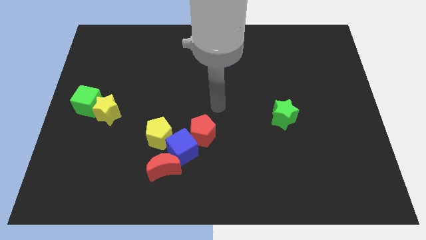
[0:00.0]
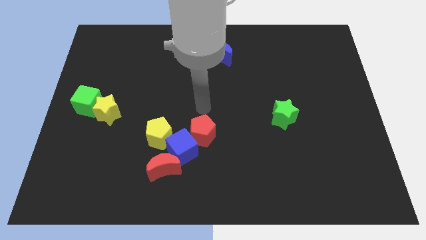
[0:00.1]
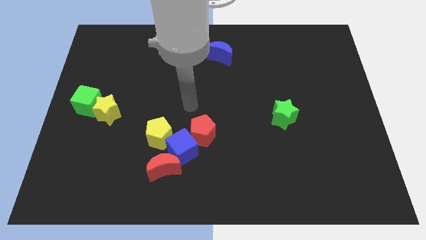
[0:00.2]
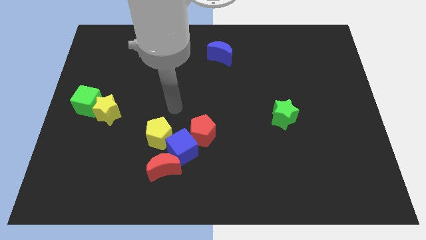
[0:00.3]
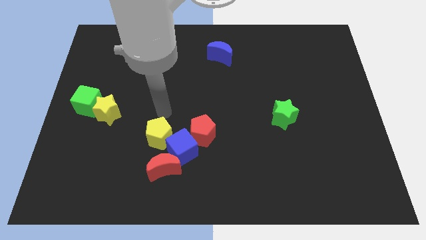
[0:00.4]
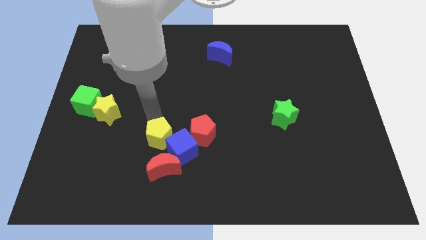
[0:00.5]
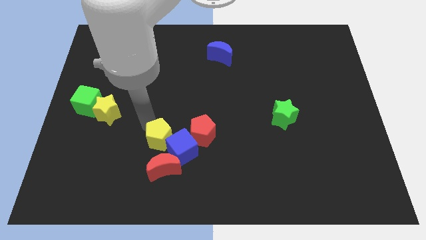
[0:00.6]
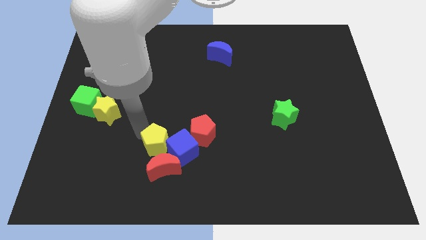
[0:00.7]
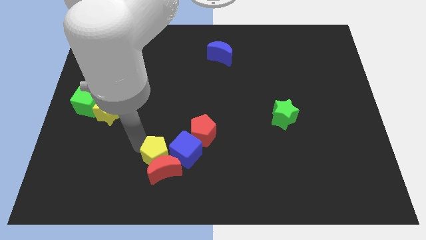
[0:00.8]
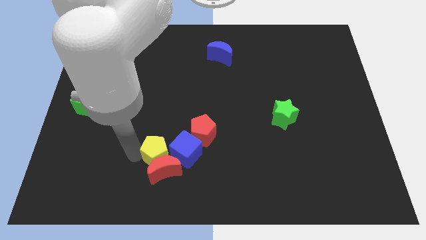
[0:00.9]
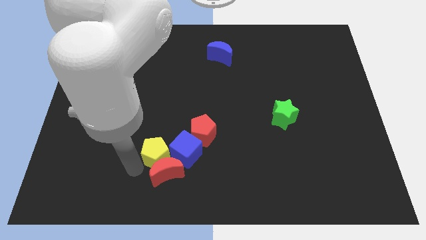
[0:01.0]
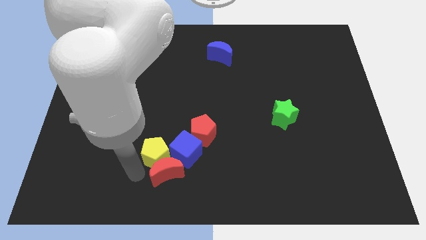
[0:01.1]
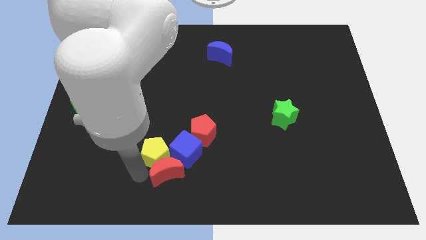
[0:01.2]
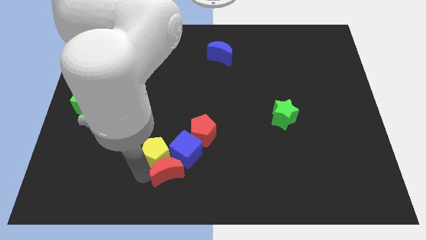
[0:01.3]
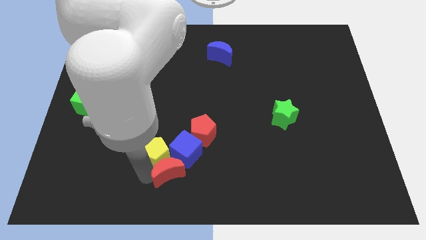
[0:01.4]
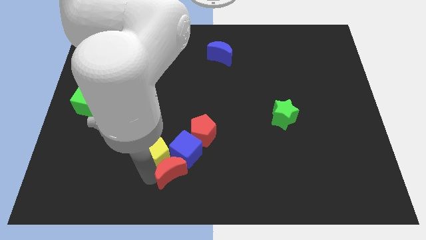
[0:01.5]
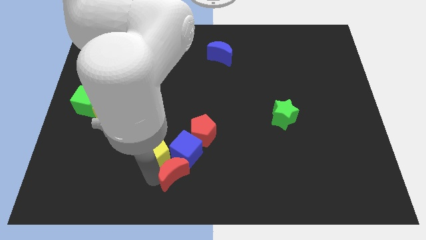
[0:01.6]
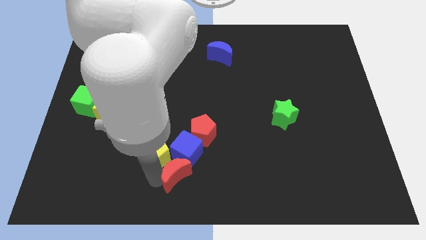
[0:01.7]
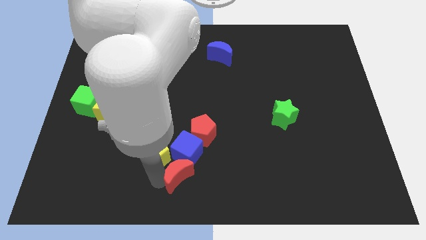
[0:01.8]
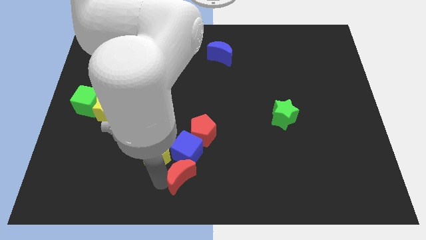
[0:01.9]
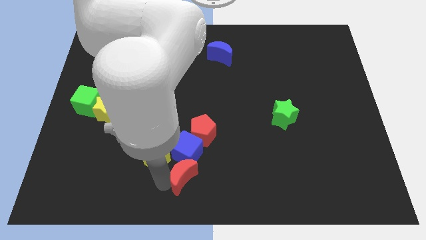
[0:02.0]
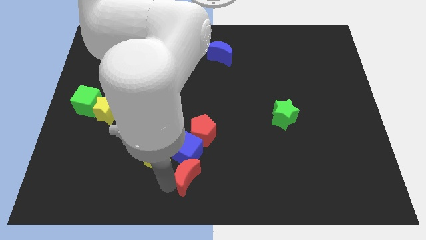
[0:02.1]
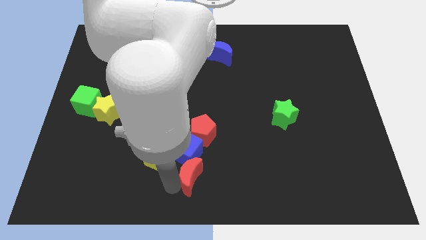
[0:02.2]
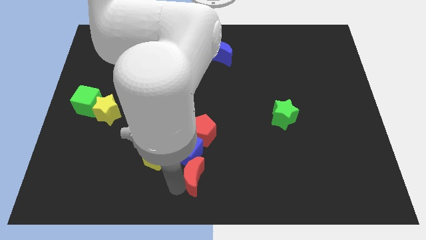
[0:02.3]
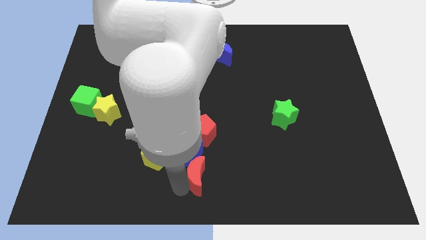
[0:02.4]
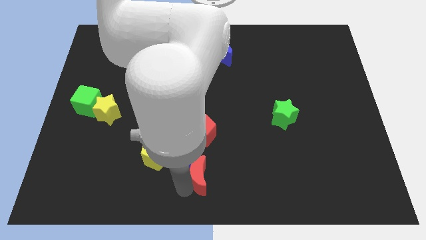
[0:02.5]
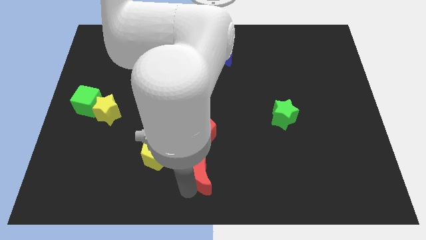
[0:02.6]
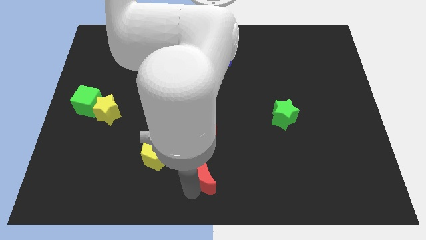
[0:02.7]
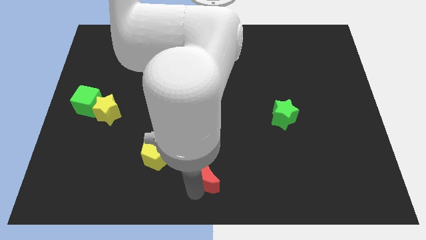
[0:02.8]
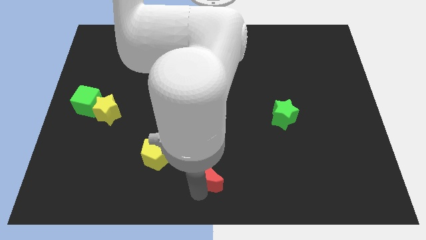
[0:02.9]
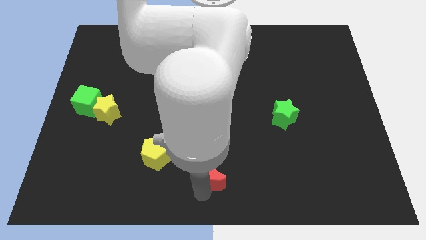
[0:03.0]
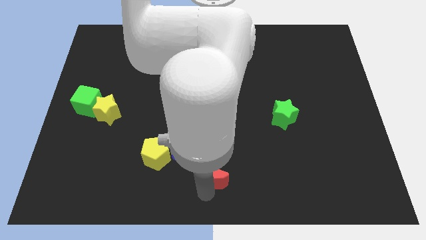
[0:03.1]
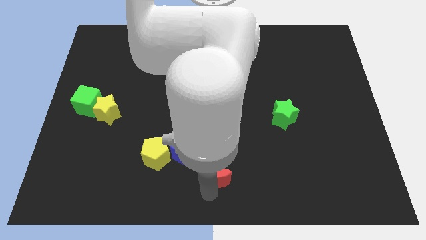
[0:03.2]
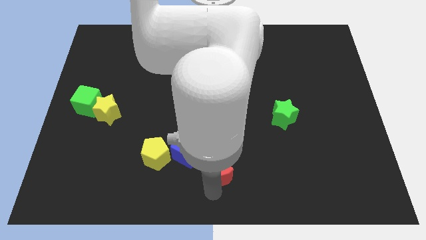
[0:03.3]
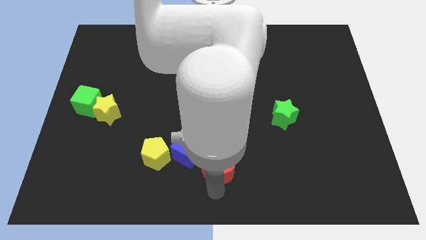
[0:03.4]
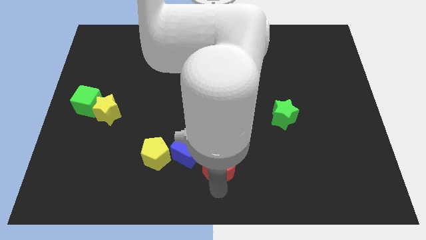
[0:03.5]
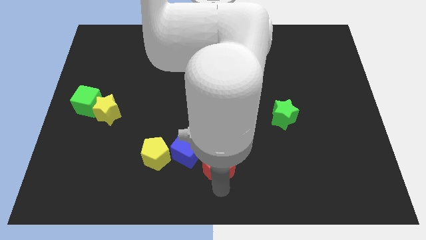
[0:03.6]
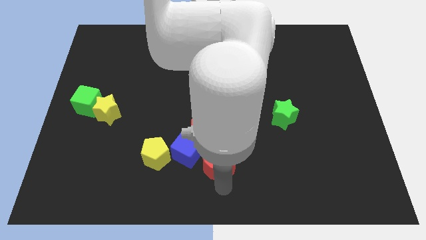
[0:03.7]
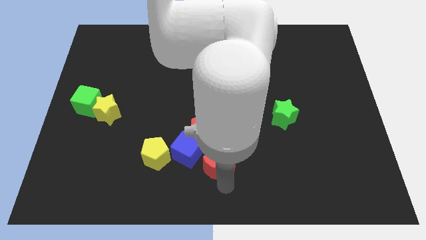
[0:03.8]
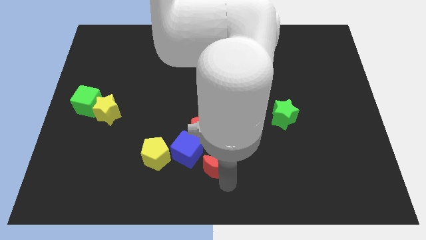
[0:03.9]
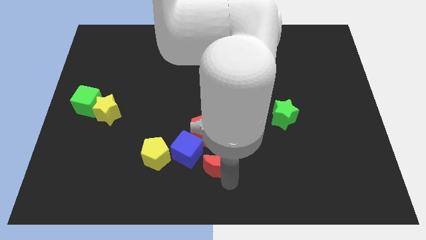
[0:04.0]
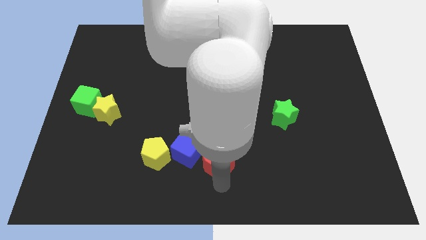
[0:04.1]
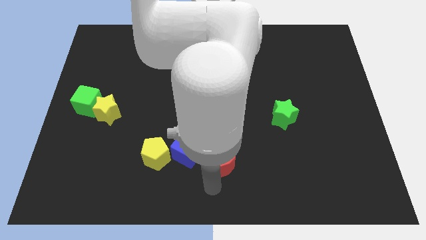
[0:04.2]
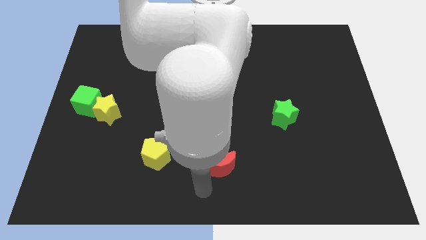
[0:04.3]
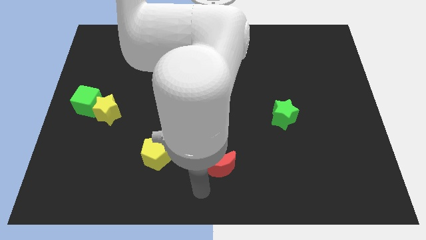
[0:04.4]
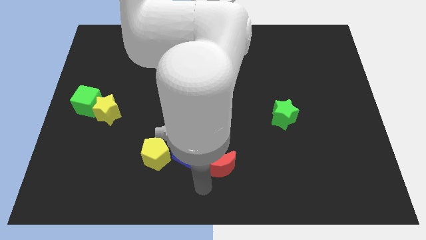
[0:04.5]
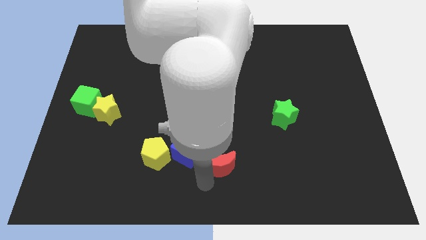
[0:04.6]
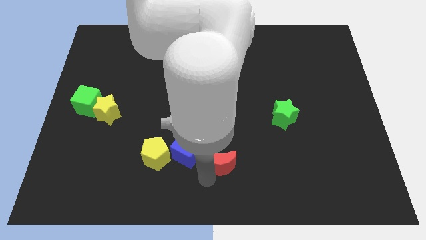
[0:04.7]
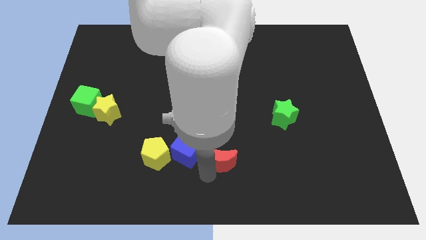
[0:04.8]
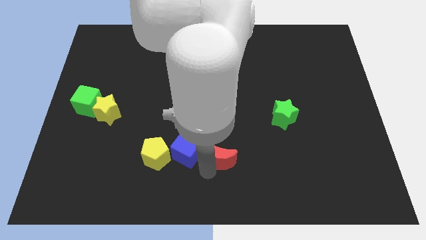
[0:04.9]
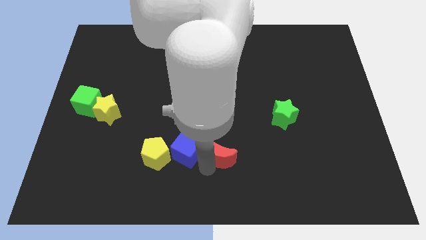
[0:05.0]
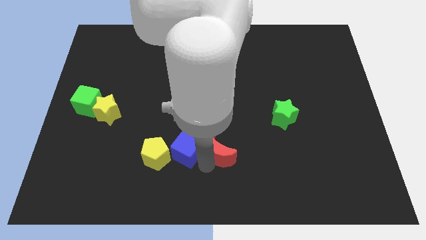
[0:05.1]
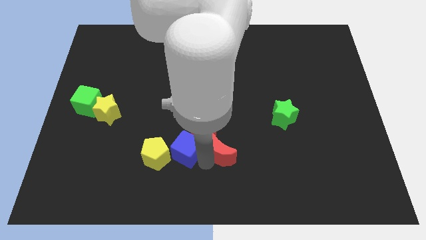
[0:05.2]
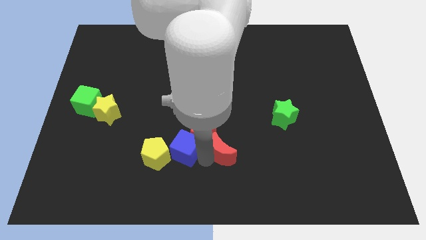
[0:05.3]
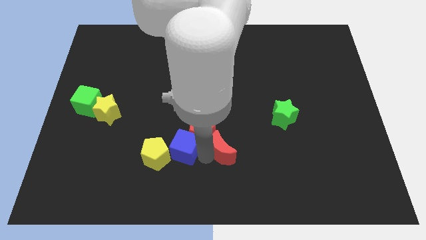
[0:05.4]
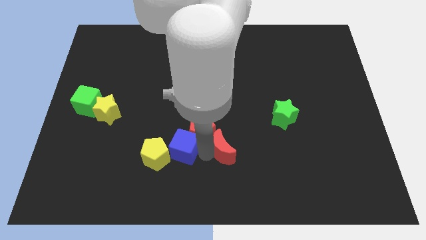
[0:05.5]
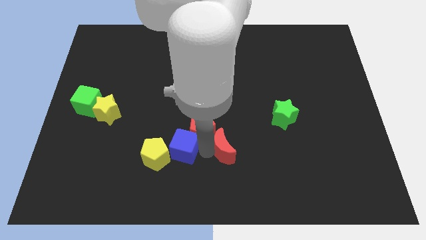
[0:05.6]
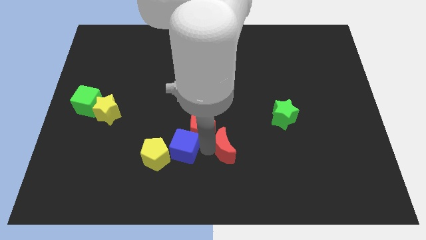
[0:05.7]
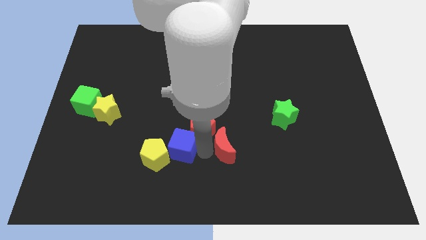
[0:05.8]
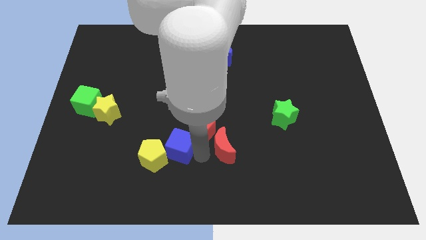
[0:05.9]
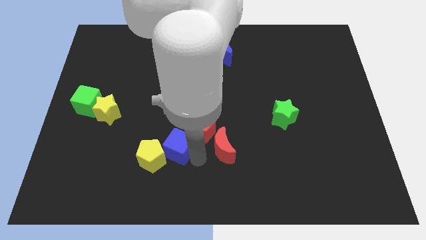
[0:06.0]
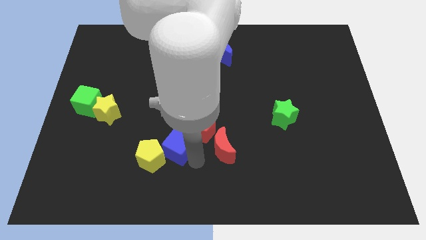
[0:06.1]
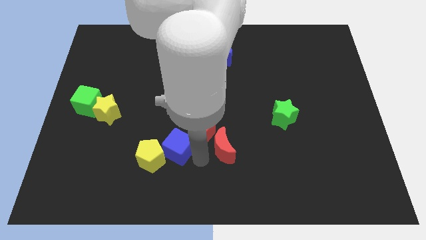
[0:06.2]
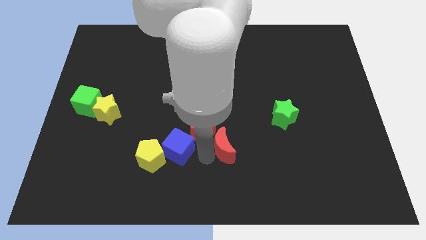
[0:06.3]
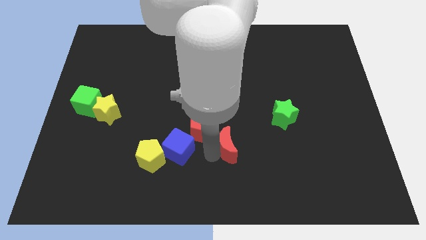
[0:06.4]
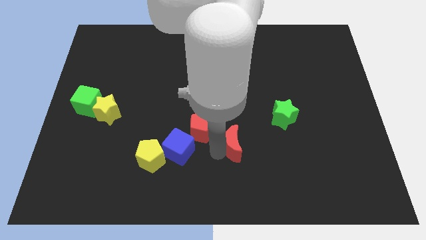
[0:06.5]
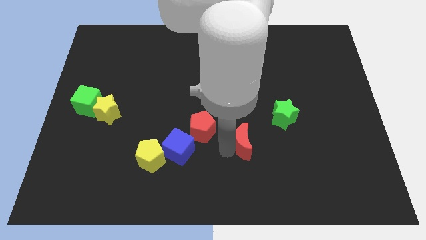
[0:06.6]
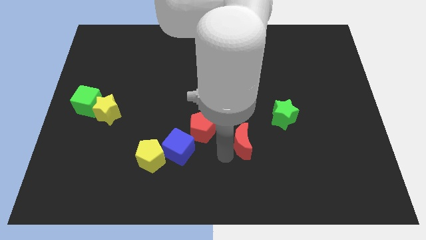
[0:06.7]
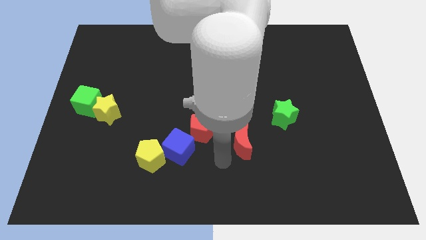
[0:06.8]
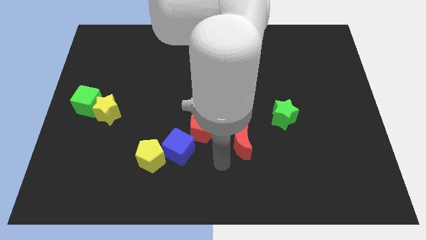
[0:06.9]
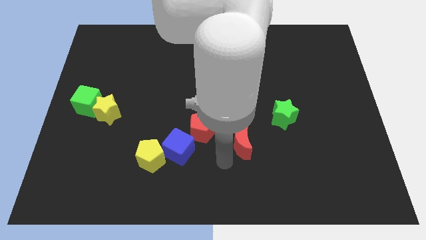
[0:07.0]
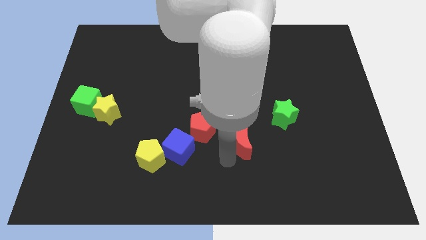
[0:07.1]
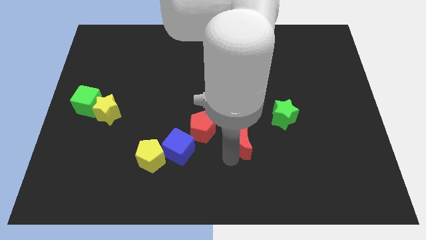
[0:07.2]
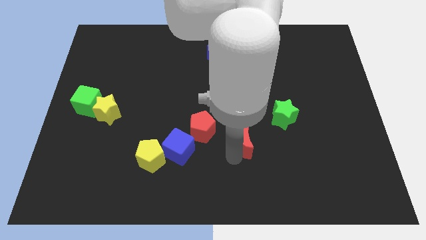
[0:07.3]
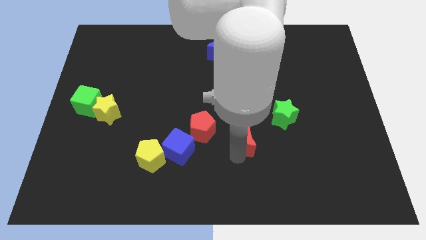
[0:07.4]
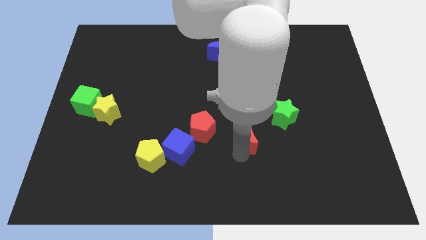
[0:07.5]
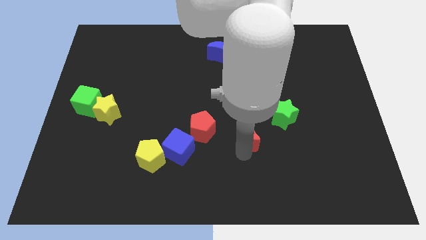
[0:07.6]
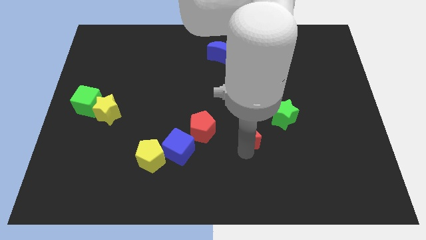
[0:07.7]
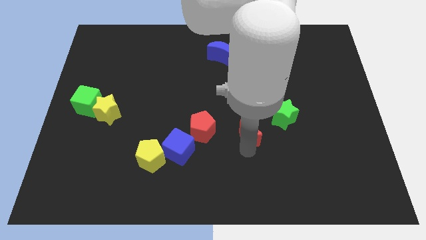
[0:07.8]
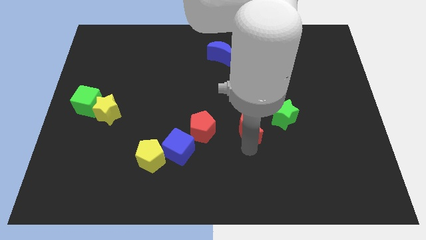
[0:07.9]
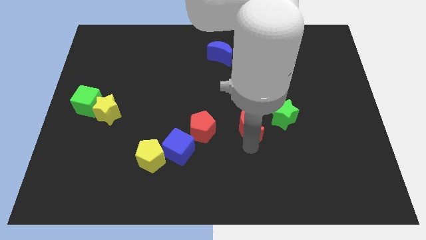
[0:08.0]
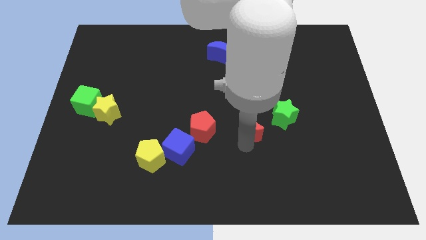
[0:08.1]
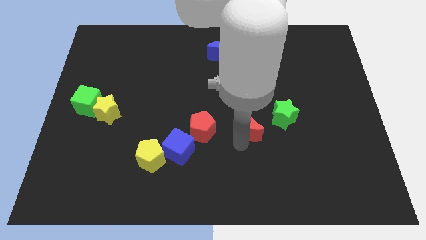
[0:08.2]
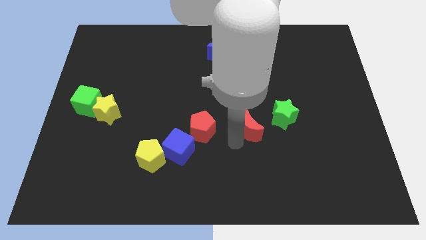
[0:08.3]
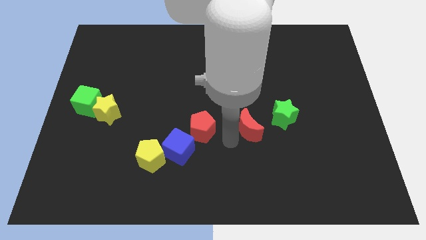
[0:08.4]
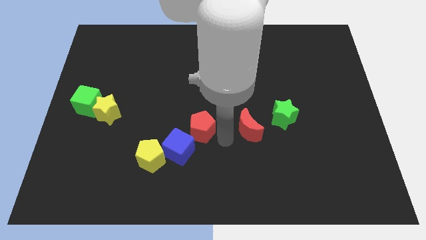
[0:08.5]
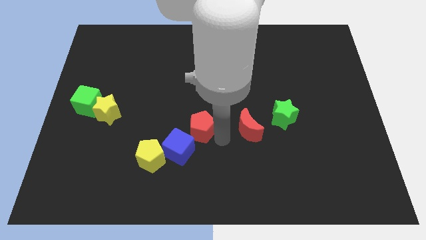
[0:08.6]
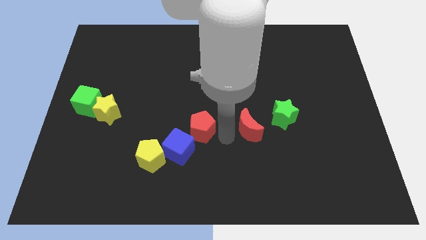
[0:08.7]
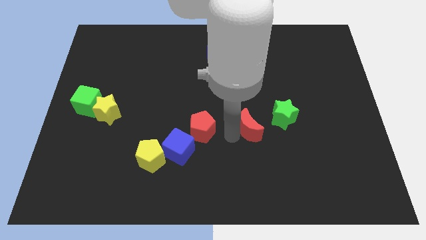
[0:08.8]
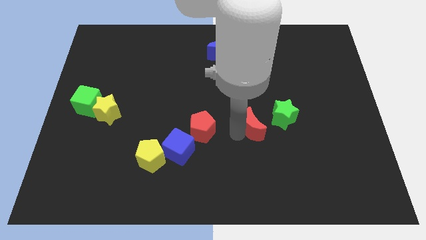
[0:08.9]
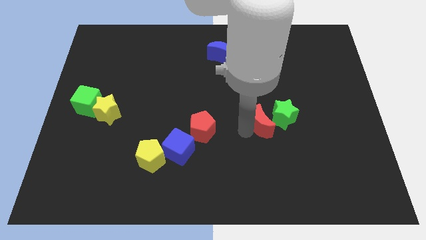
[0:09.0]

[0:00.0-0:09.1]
push the red moon close to the green star
